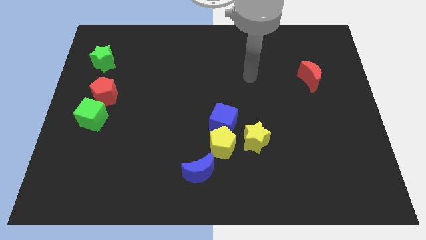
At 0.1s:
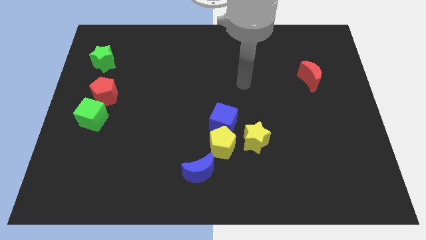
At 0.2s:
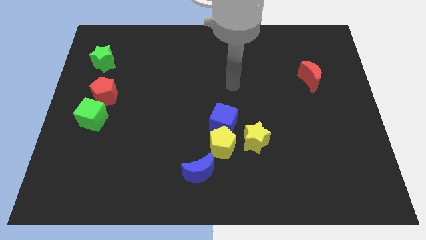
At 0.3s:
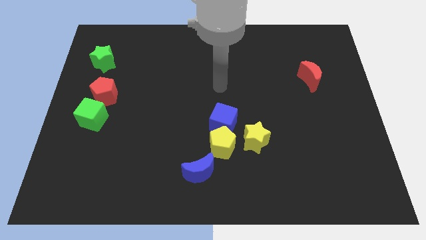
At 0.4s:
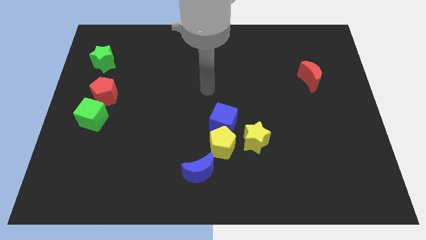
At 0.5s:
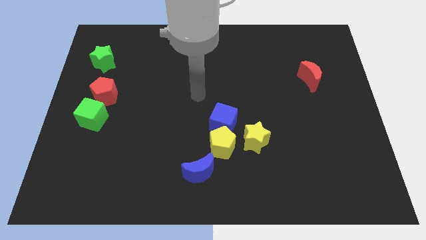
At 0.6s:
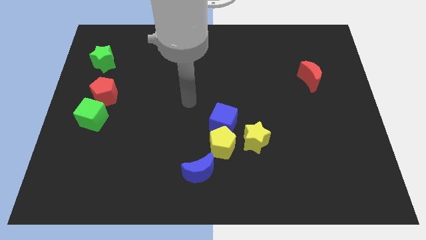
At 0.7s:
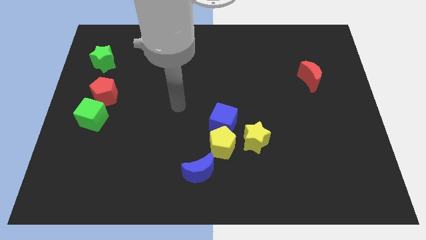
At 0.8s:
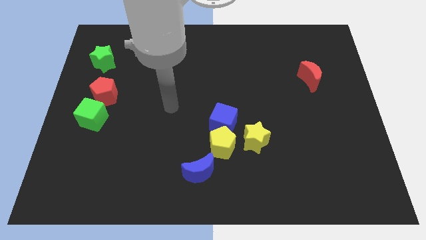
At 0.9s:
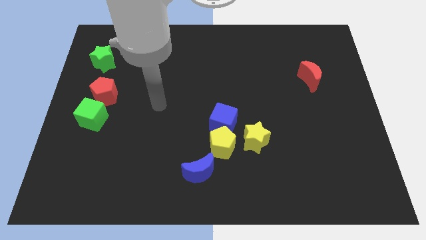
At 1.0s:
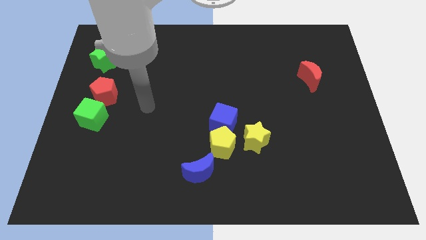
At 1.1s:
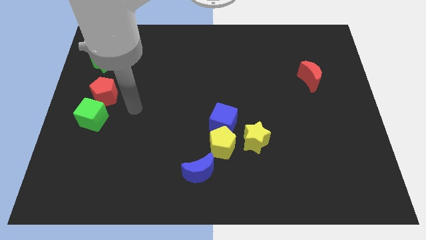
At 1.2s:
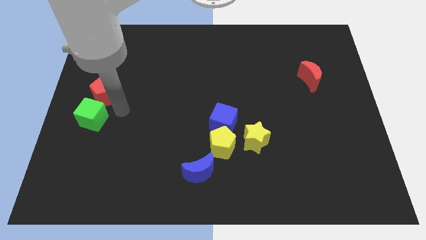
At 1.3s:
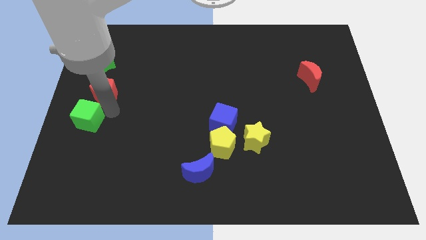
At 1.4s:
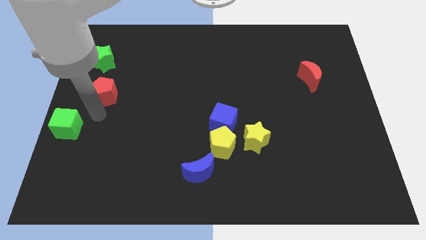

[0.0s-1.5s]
separate the red pentagon from the green cube

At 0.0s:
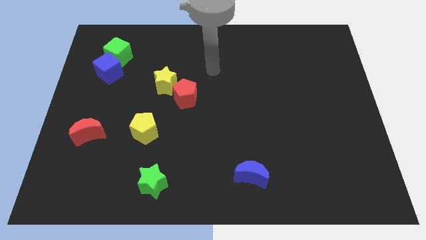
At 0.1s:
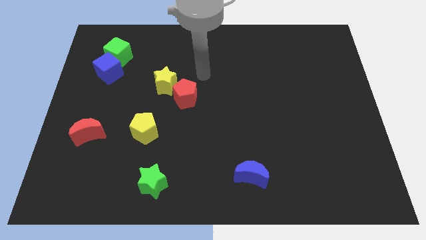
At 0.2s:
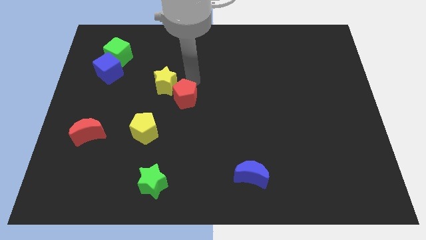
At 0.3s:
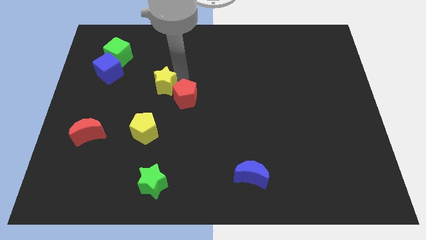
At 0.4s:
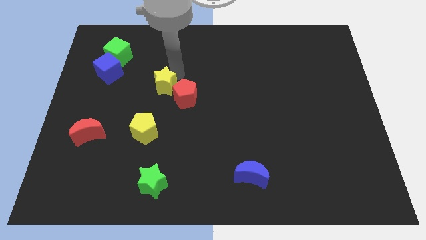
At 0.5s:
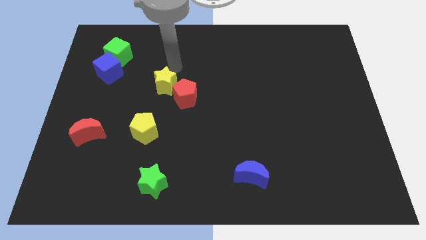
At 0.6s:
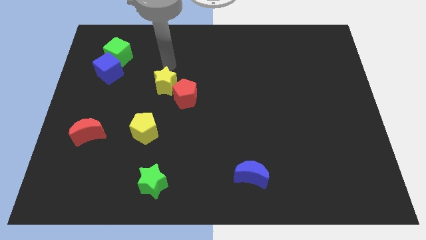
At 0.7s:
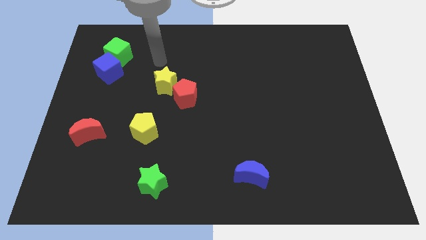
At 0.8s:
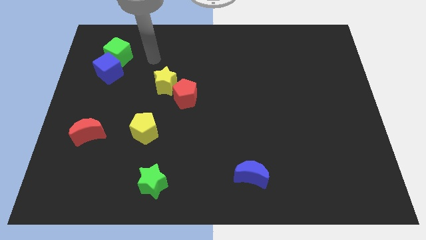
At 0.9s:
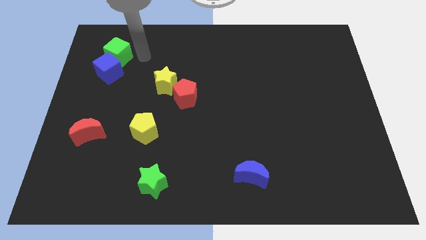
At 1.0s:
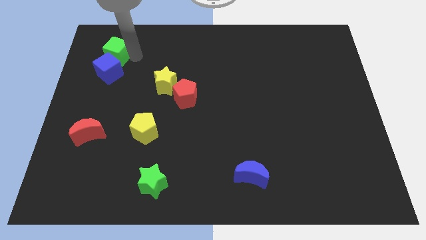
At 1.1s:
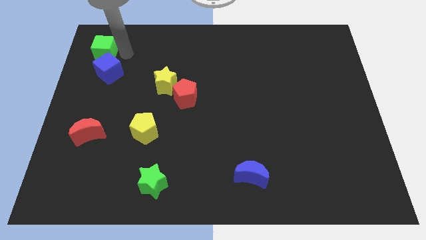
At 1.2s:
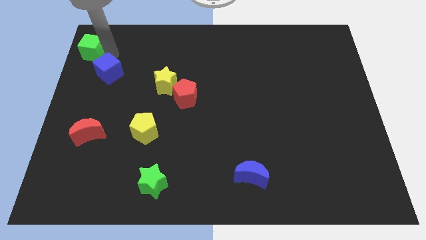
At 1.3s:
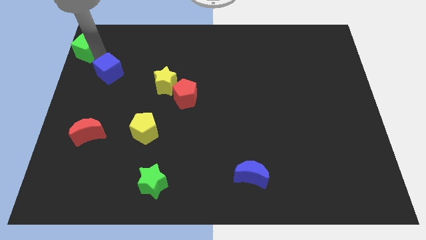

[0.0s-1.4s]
separate the blue cube from the green cube

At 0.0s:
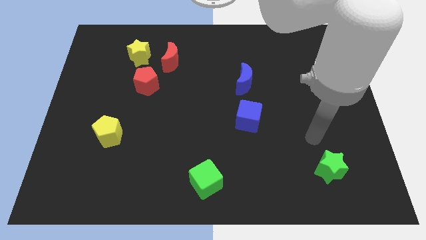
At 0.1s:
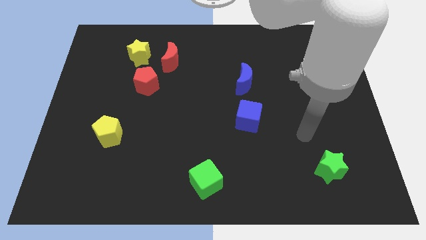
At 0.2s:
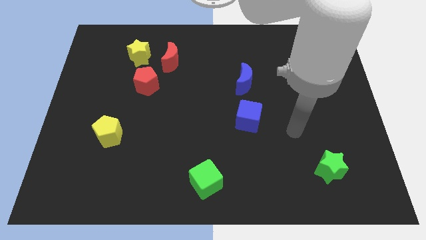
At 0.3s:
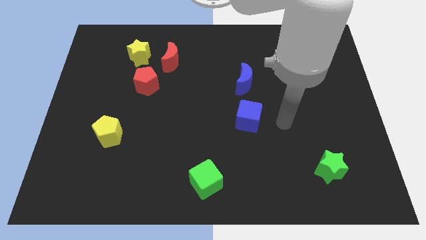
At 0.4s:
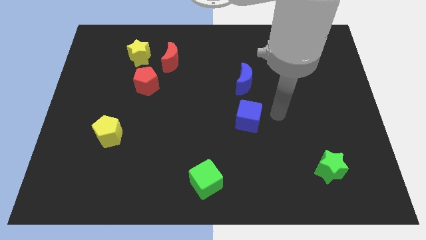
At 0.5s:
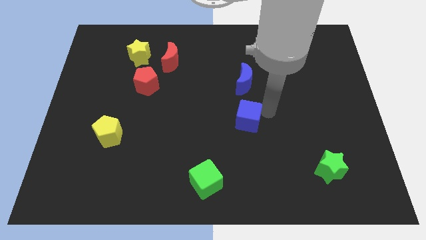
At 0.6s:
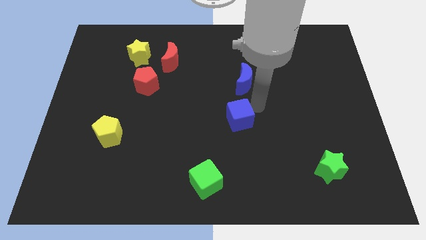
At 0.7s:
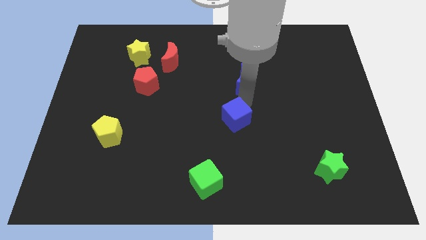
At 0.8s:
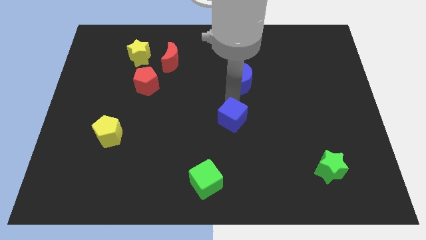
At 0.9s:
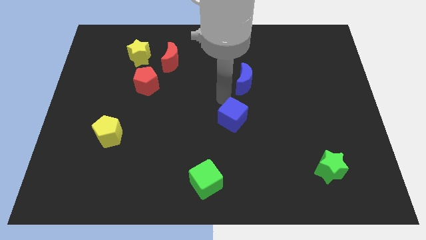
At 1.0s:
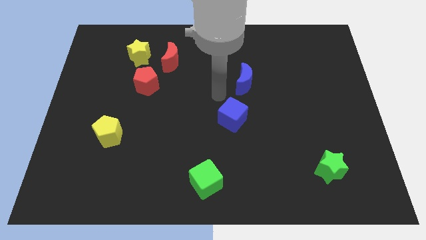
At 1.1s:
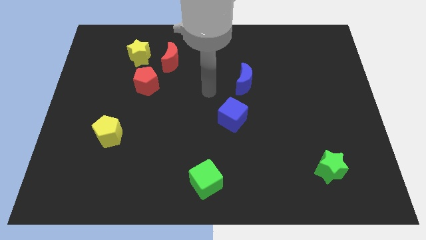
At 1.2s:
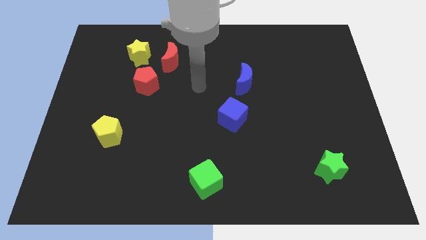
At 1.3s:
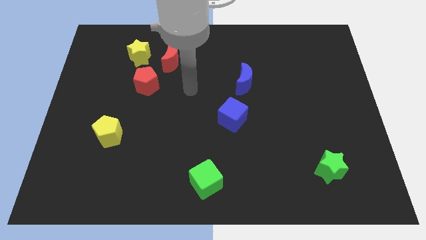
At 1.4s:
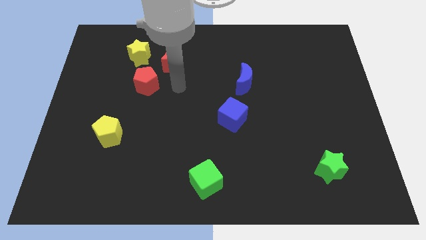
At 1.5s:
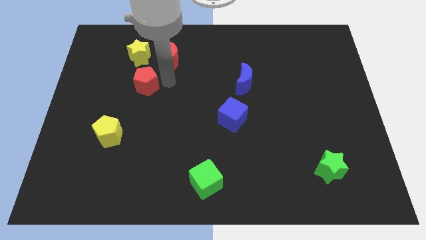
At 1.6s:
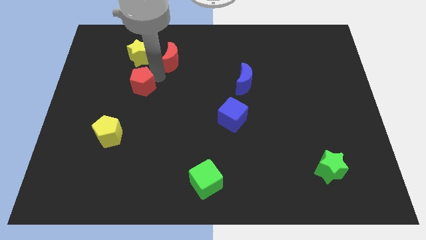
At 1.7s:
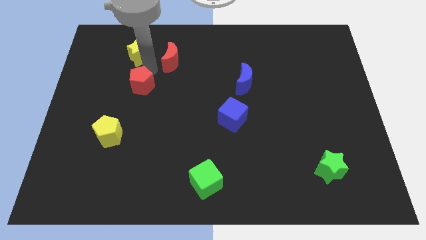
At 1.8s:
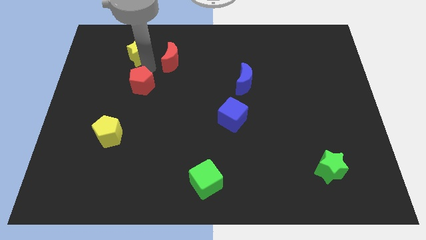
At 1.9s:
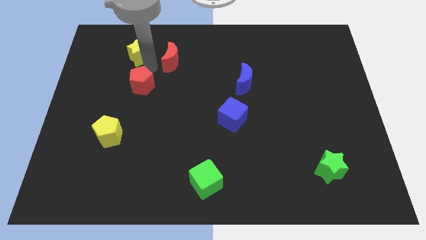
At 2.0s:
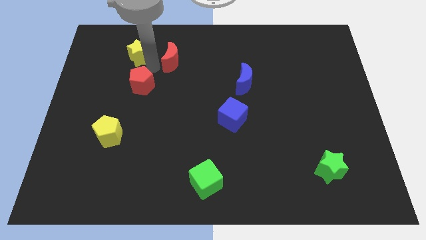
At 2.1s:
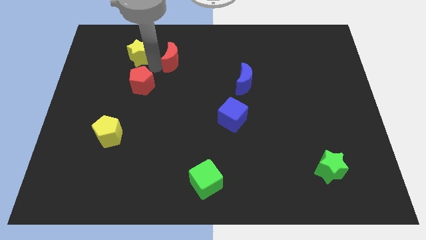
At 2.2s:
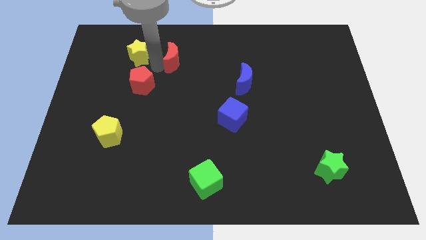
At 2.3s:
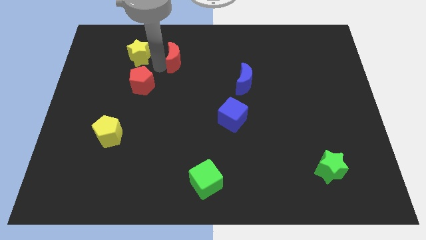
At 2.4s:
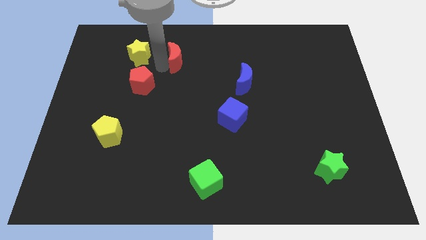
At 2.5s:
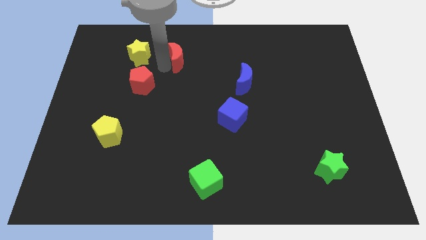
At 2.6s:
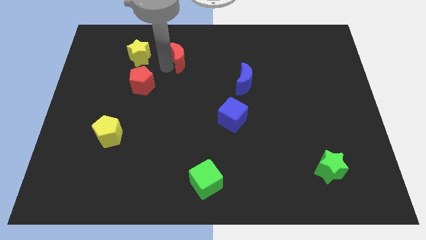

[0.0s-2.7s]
pull the red moon apart from the yellow star and red pentagon

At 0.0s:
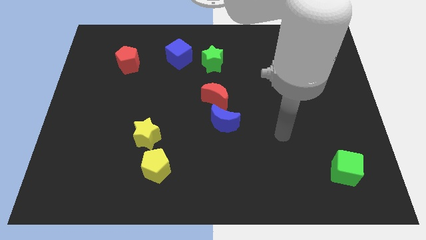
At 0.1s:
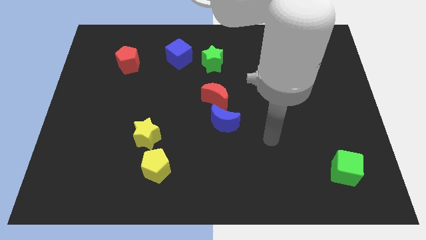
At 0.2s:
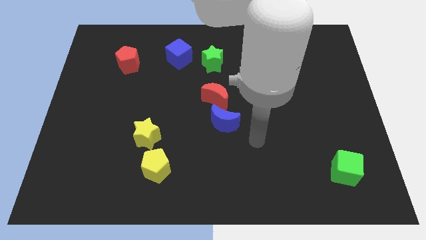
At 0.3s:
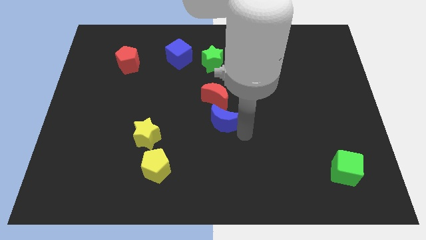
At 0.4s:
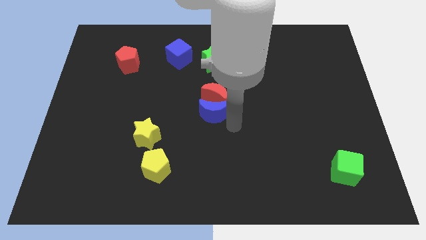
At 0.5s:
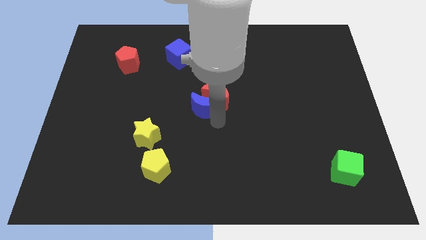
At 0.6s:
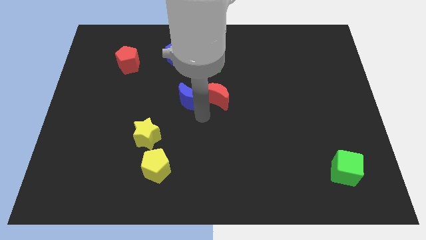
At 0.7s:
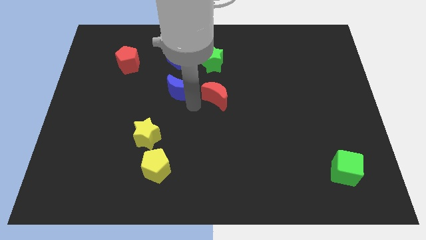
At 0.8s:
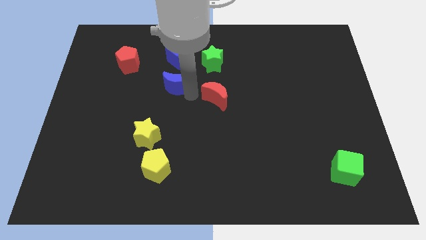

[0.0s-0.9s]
move the red moon away from the blue moon

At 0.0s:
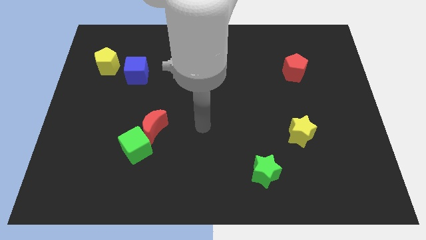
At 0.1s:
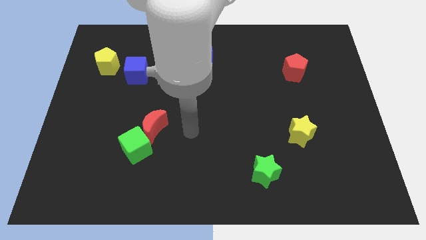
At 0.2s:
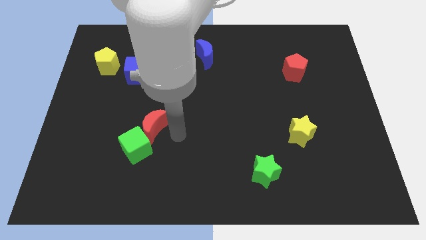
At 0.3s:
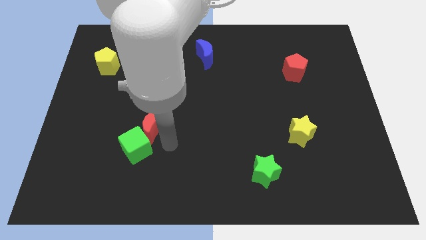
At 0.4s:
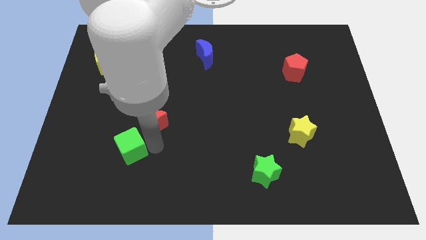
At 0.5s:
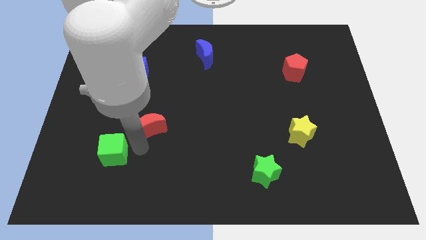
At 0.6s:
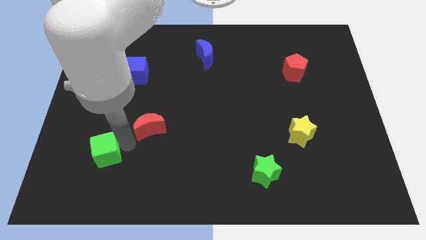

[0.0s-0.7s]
pull the red moon apart from the green cube

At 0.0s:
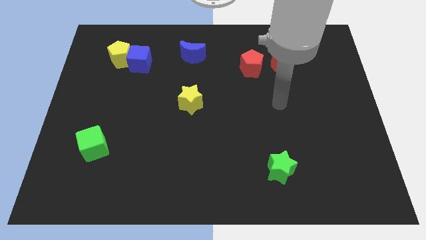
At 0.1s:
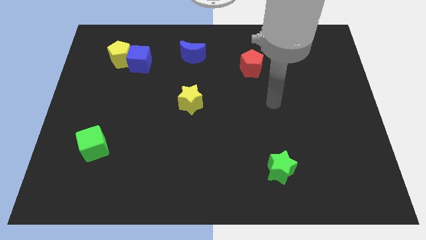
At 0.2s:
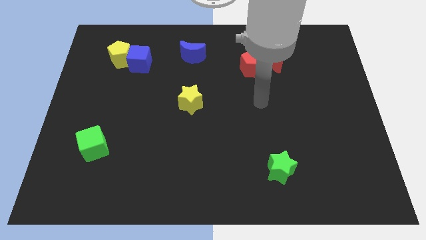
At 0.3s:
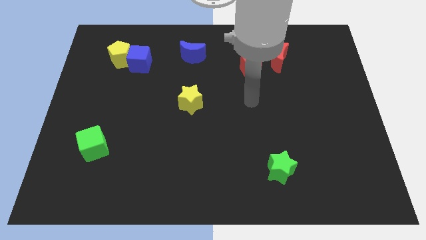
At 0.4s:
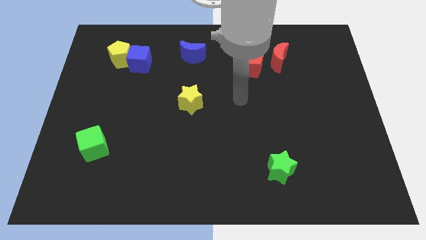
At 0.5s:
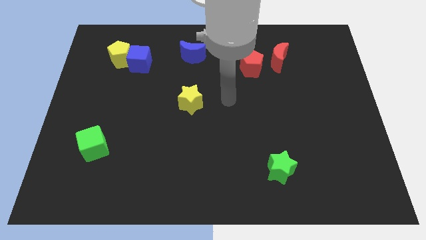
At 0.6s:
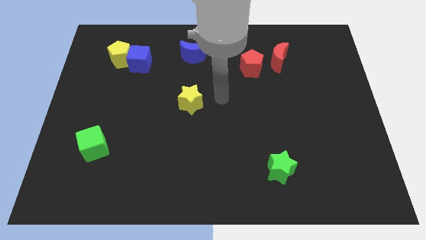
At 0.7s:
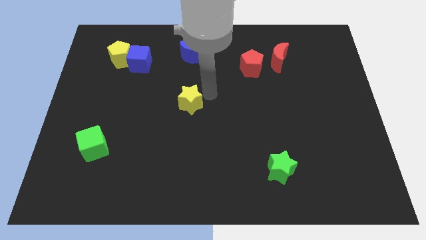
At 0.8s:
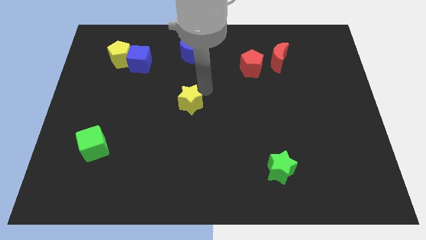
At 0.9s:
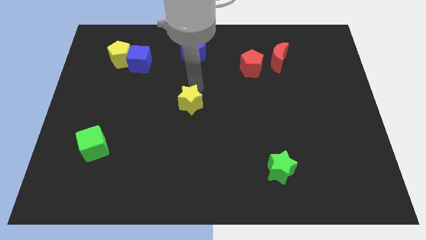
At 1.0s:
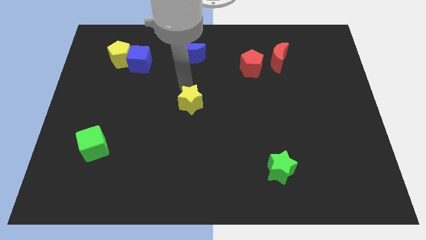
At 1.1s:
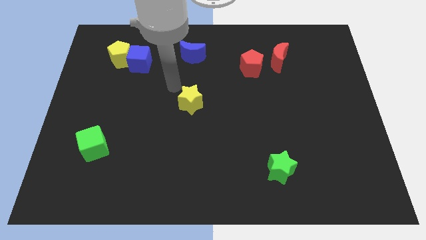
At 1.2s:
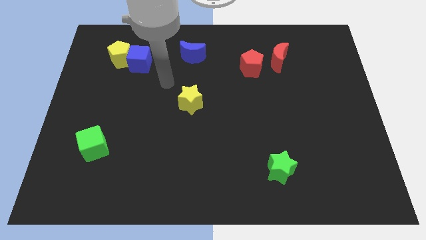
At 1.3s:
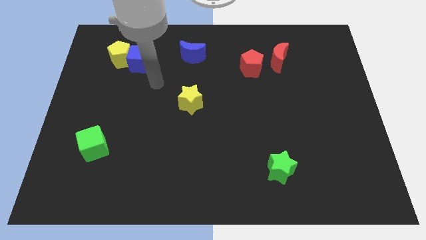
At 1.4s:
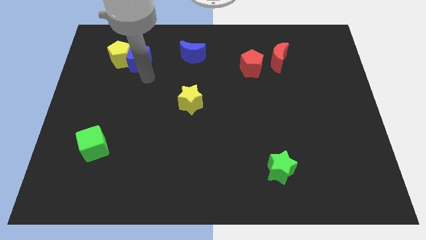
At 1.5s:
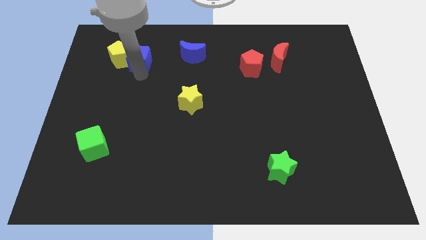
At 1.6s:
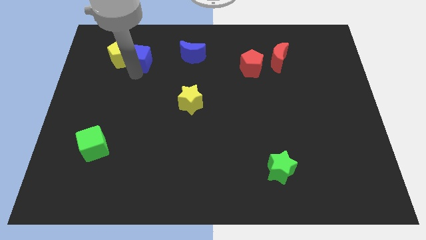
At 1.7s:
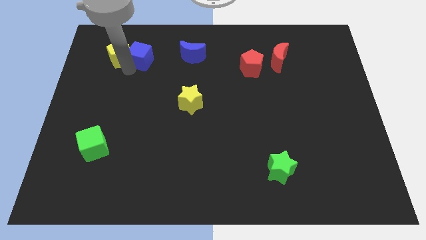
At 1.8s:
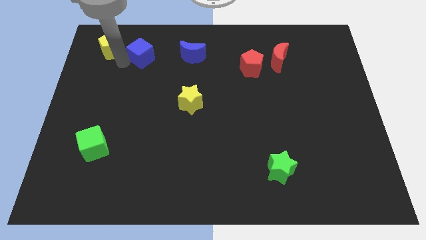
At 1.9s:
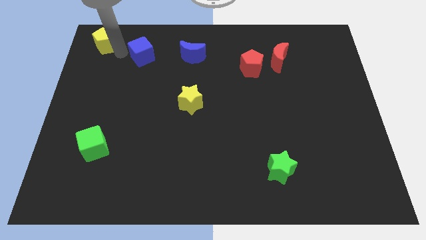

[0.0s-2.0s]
separate the blue cube from the yellow pentagon
